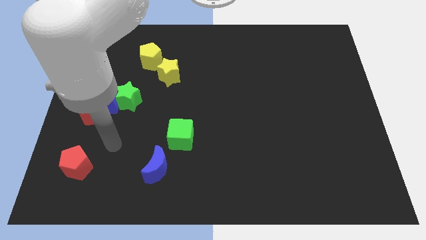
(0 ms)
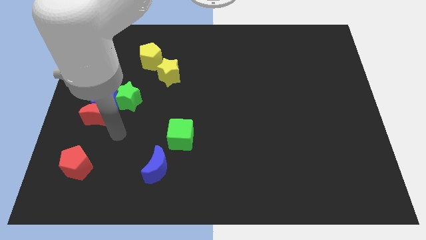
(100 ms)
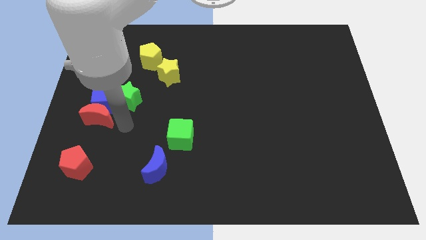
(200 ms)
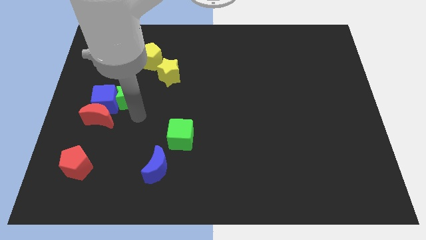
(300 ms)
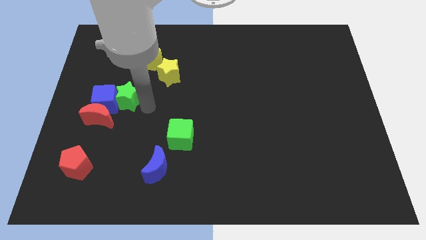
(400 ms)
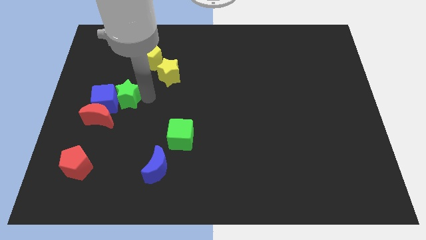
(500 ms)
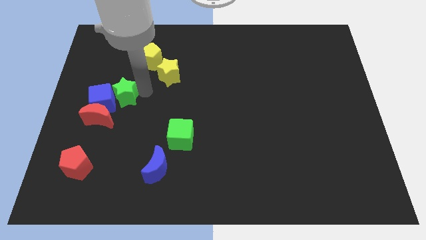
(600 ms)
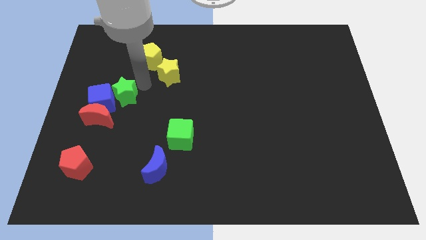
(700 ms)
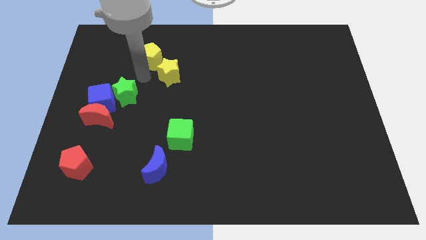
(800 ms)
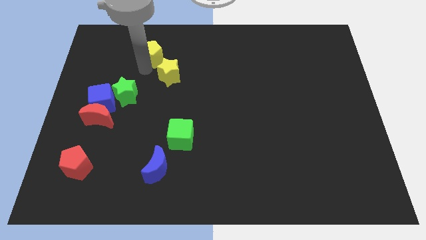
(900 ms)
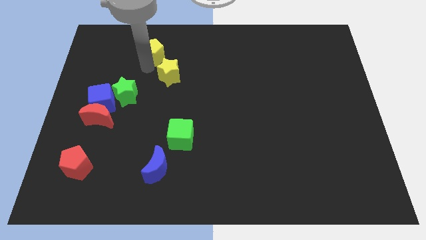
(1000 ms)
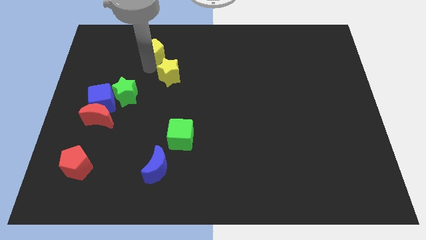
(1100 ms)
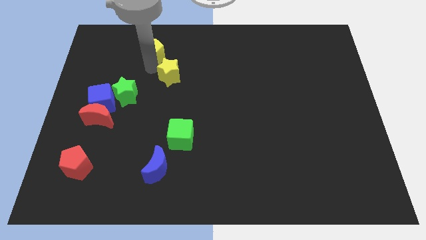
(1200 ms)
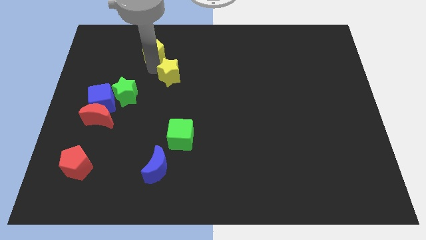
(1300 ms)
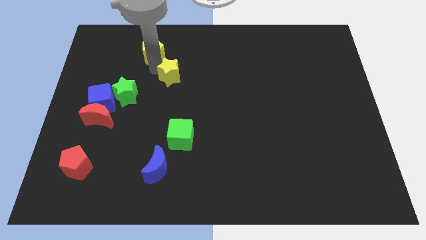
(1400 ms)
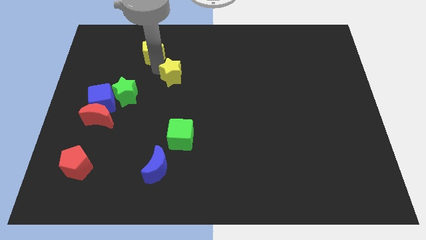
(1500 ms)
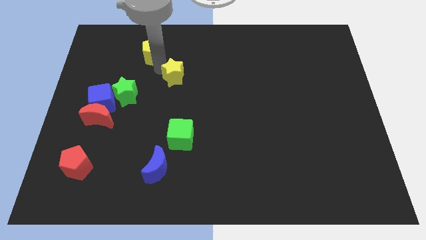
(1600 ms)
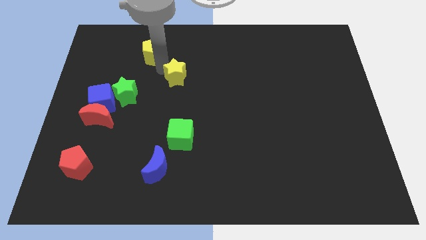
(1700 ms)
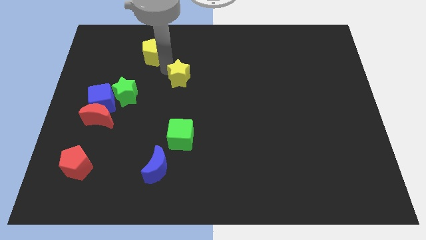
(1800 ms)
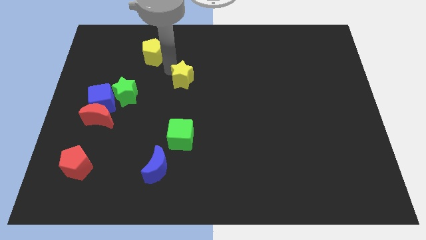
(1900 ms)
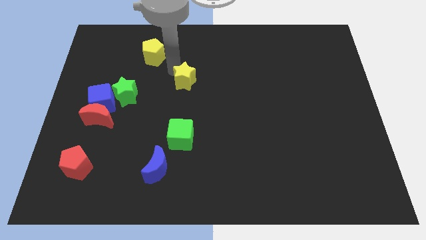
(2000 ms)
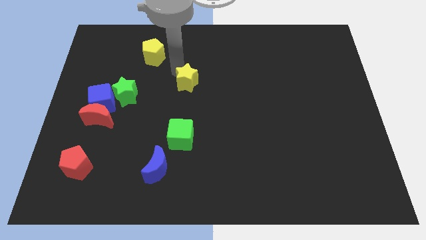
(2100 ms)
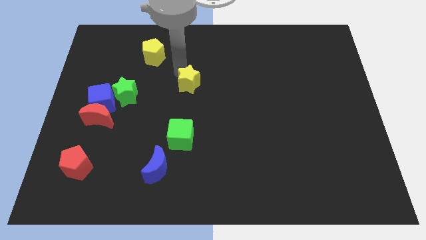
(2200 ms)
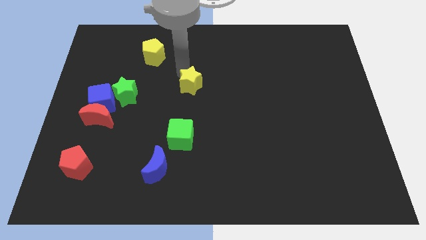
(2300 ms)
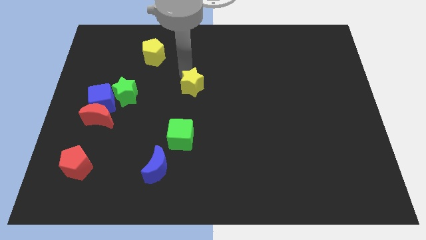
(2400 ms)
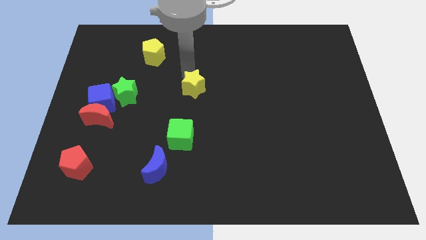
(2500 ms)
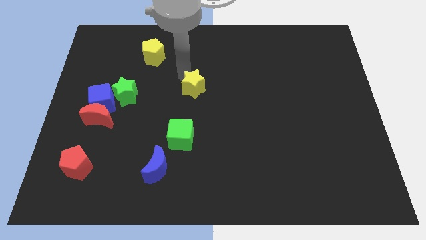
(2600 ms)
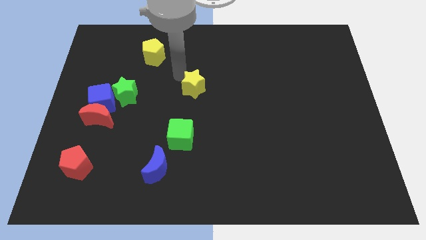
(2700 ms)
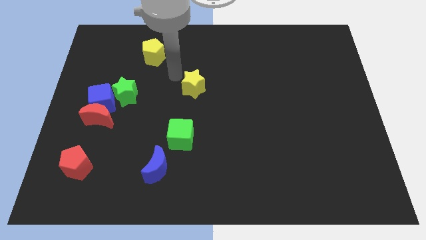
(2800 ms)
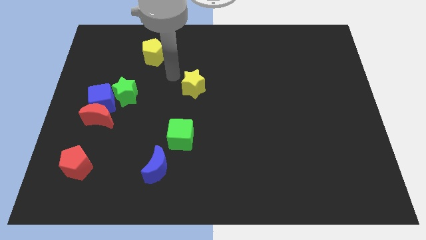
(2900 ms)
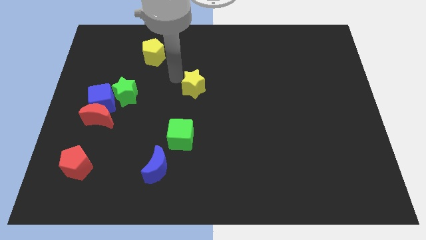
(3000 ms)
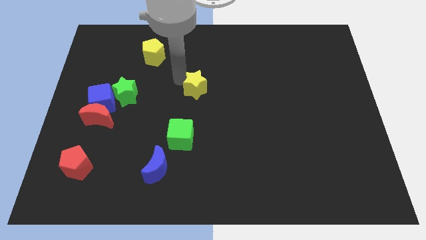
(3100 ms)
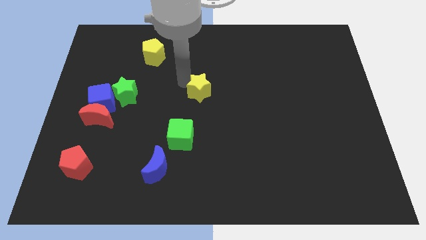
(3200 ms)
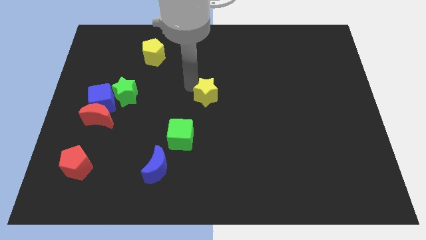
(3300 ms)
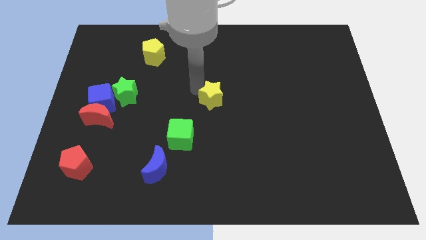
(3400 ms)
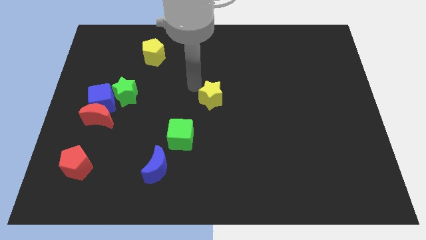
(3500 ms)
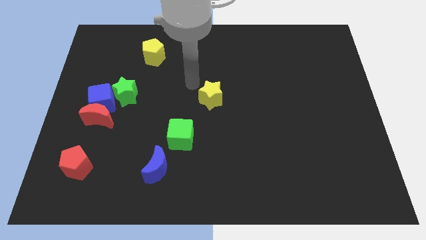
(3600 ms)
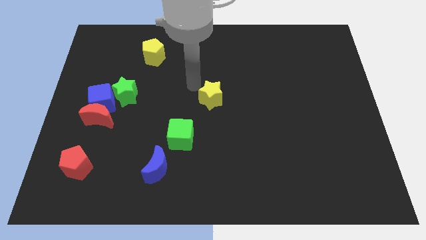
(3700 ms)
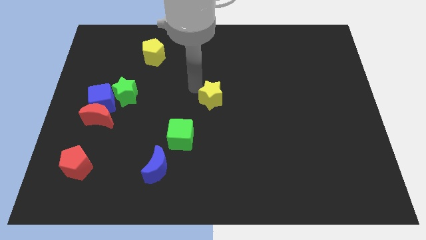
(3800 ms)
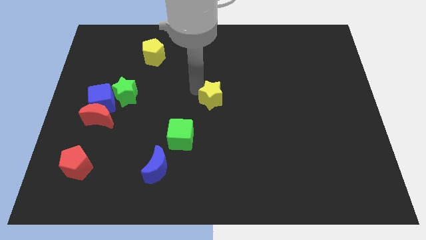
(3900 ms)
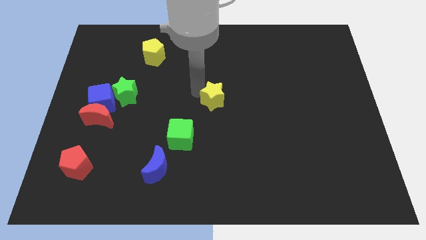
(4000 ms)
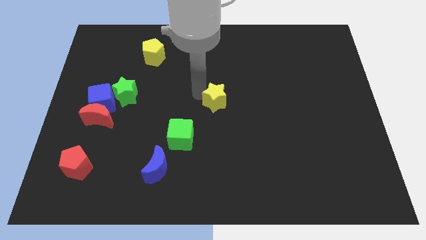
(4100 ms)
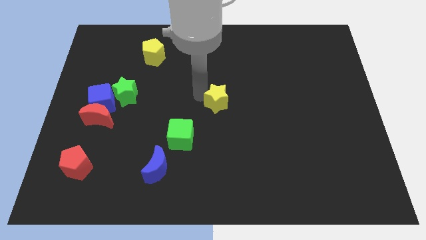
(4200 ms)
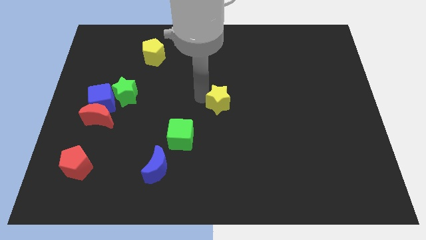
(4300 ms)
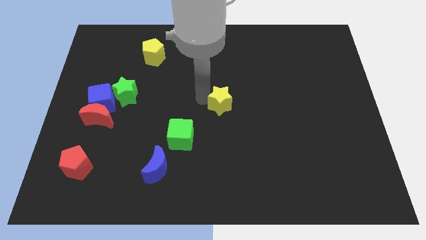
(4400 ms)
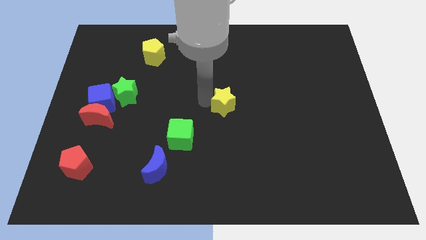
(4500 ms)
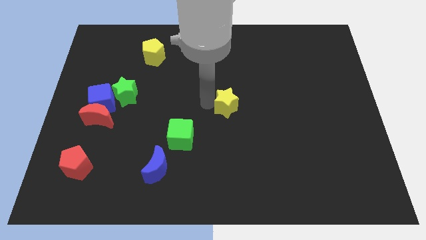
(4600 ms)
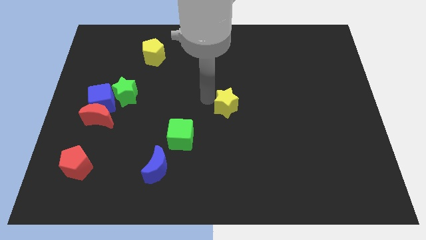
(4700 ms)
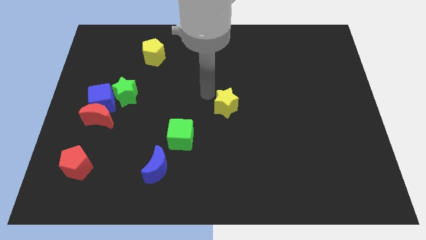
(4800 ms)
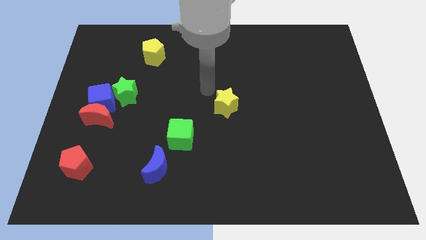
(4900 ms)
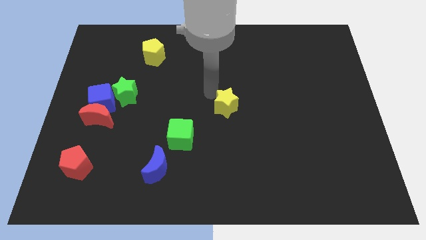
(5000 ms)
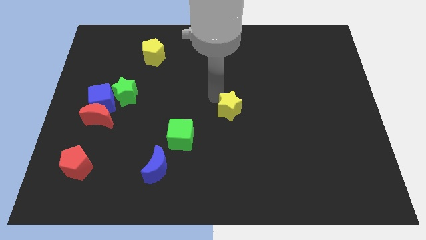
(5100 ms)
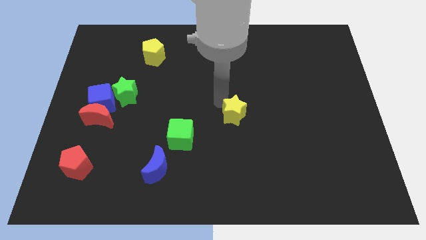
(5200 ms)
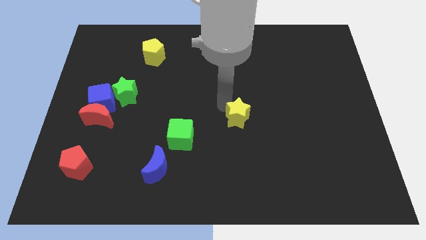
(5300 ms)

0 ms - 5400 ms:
push the yellow star down and right diagonally

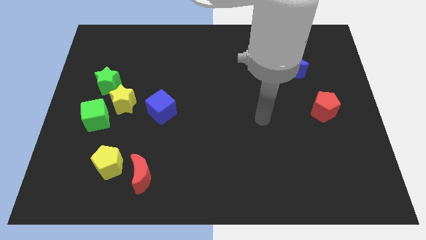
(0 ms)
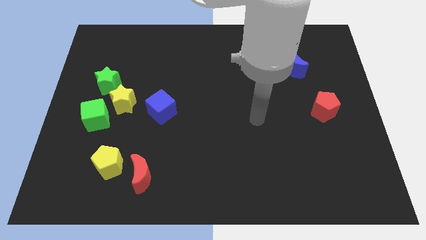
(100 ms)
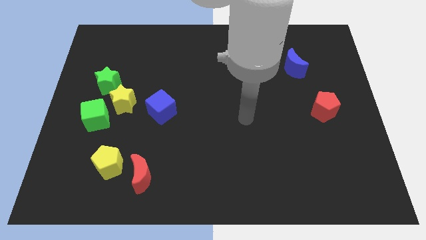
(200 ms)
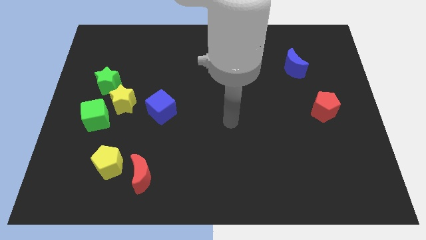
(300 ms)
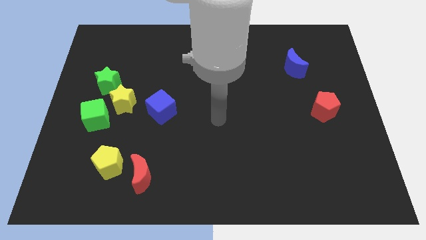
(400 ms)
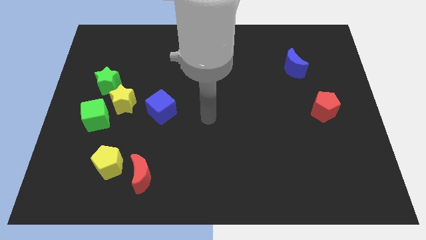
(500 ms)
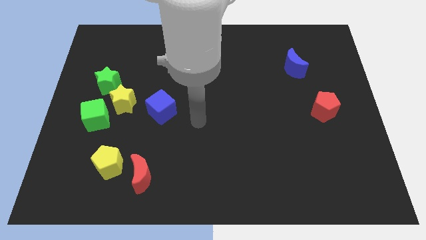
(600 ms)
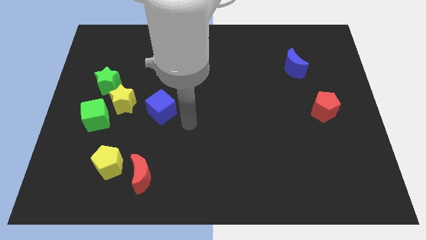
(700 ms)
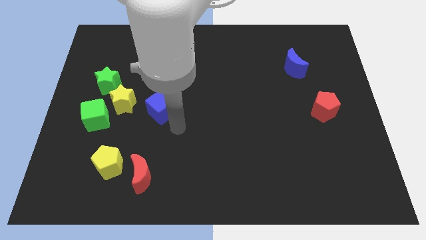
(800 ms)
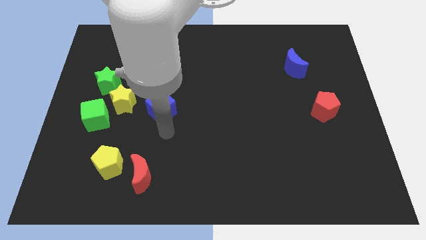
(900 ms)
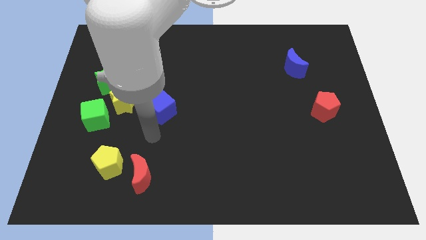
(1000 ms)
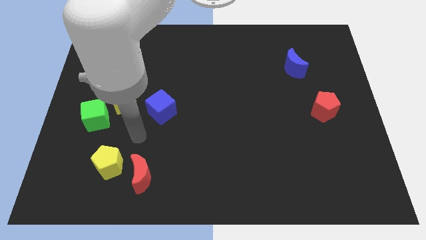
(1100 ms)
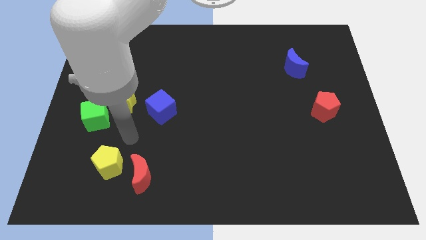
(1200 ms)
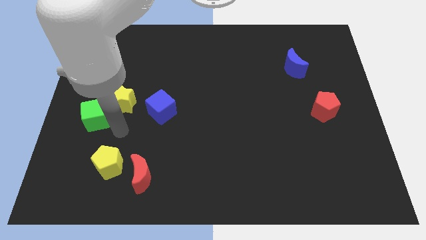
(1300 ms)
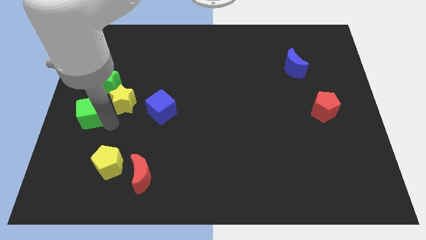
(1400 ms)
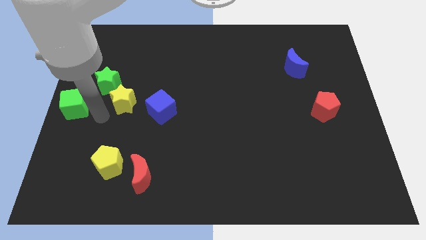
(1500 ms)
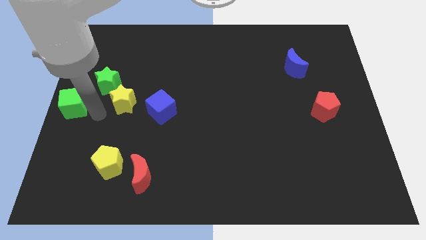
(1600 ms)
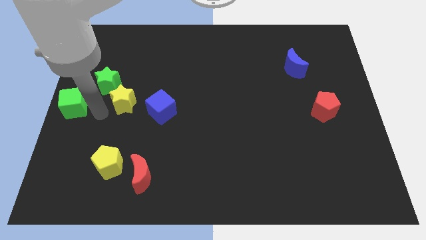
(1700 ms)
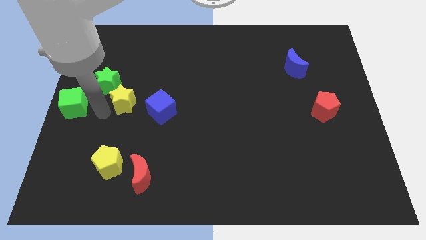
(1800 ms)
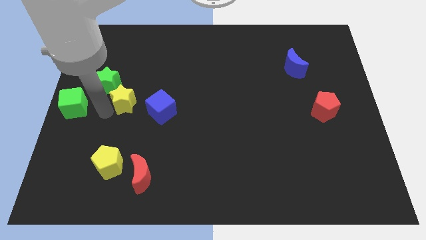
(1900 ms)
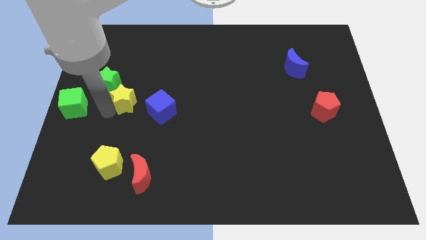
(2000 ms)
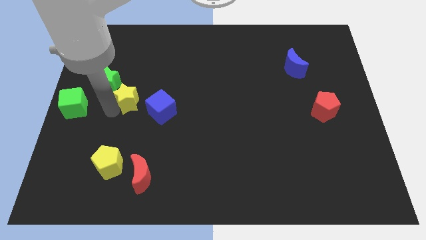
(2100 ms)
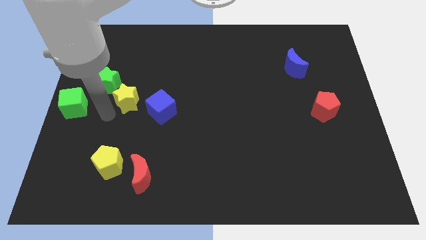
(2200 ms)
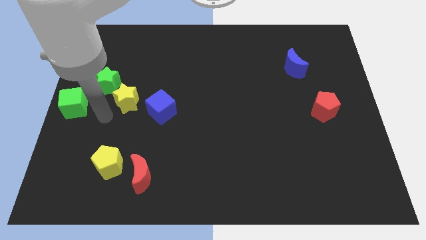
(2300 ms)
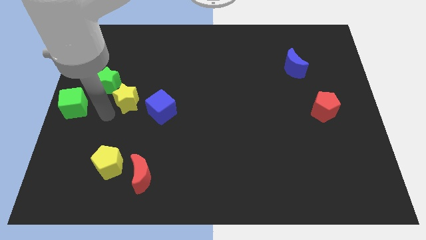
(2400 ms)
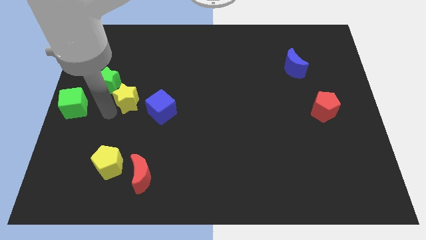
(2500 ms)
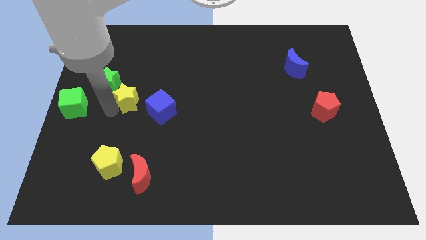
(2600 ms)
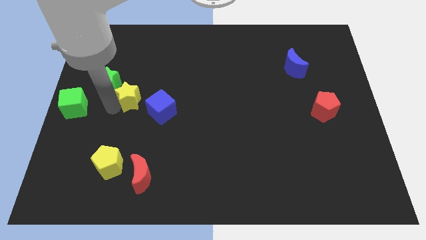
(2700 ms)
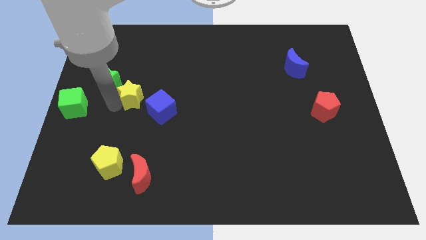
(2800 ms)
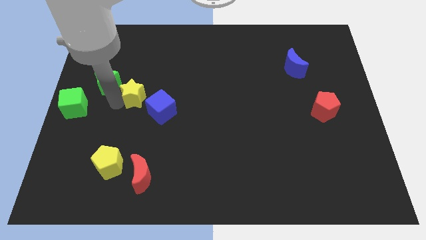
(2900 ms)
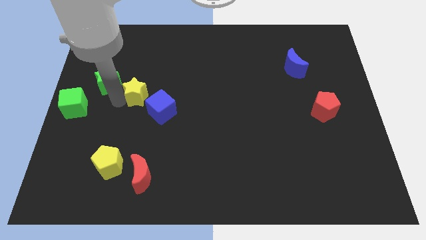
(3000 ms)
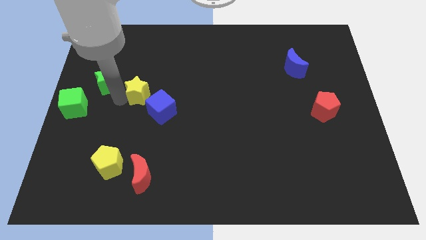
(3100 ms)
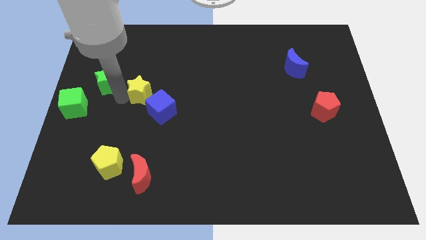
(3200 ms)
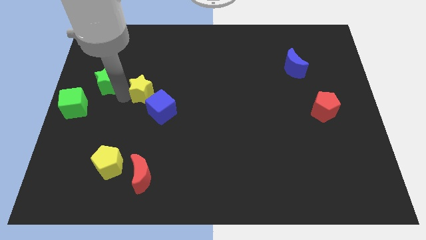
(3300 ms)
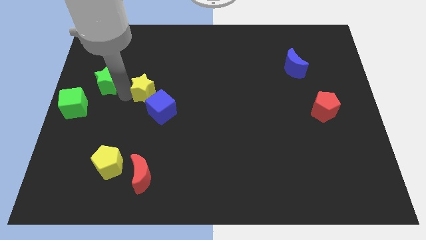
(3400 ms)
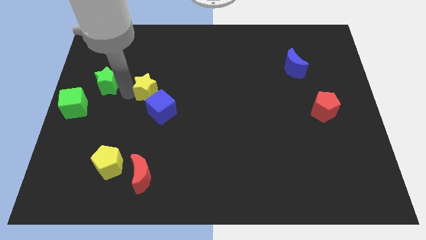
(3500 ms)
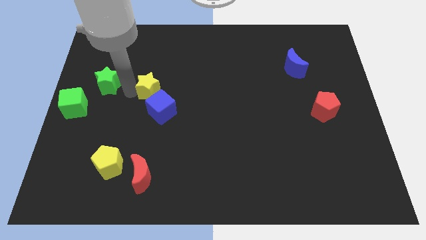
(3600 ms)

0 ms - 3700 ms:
slide the yellow star up and right slightly
